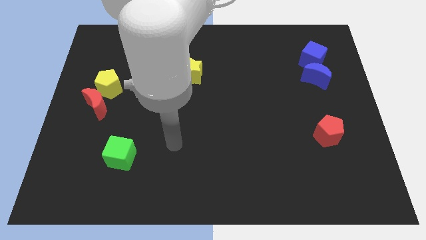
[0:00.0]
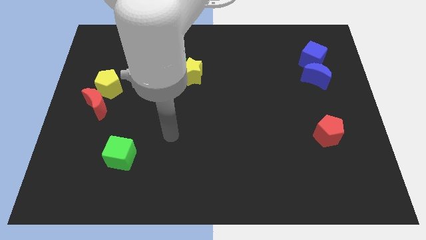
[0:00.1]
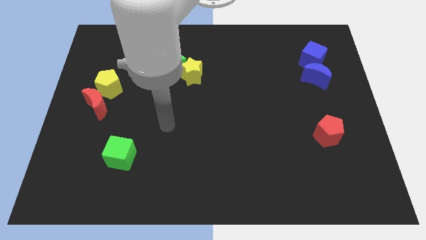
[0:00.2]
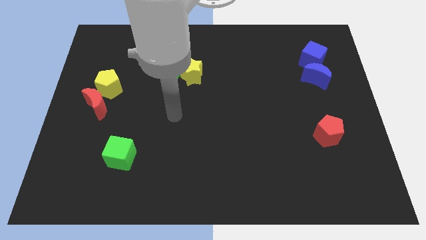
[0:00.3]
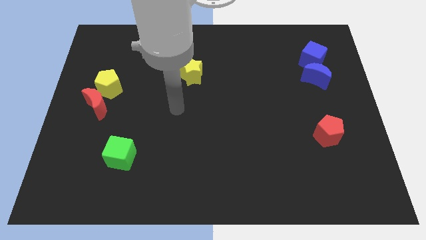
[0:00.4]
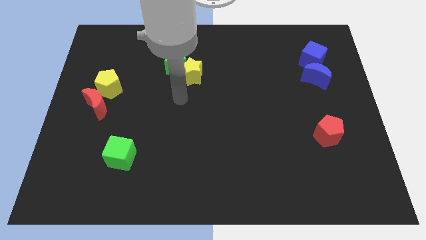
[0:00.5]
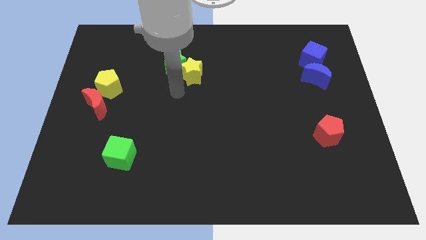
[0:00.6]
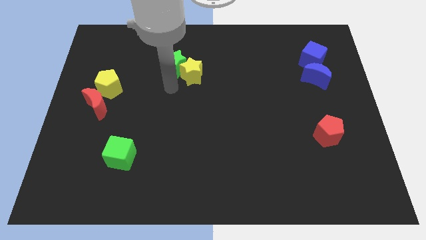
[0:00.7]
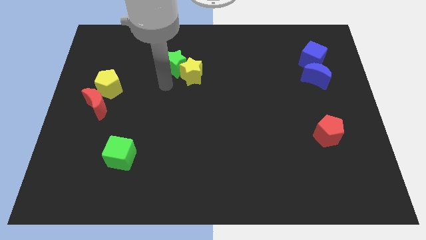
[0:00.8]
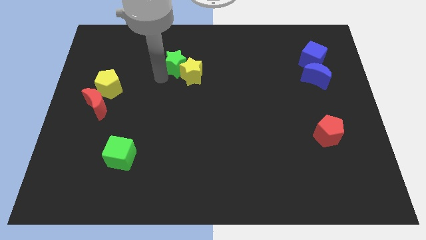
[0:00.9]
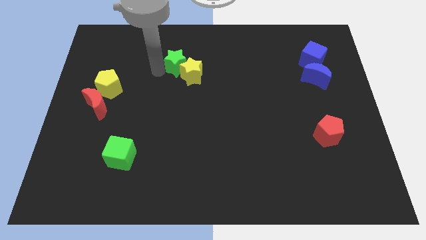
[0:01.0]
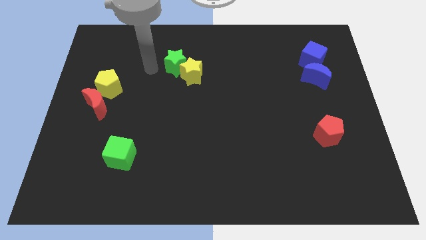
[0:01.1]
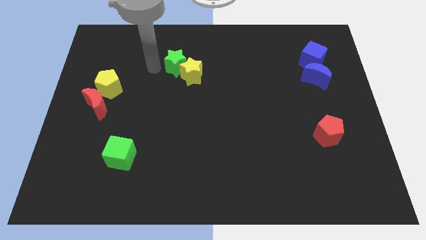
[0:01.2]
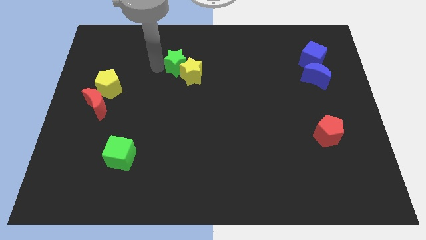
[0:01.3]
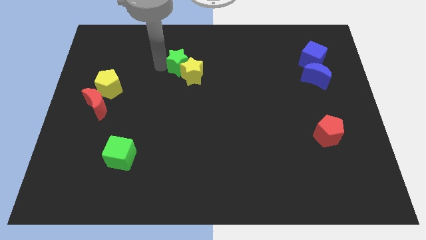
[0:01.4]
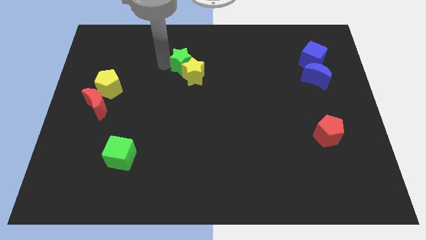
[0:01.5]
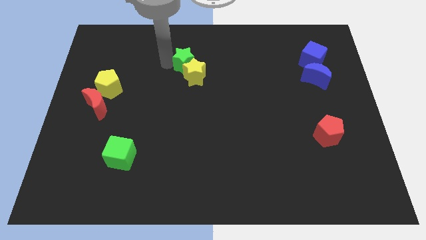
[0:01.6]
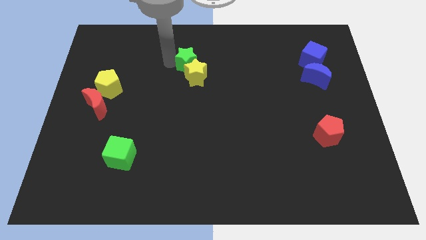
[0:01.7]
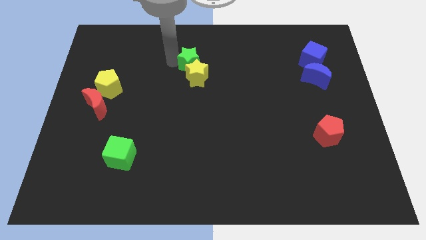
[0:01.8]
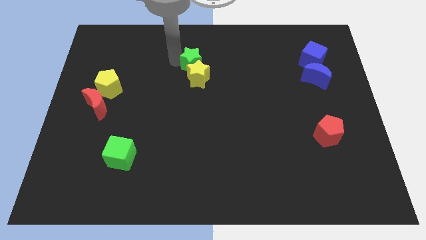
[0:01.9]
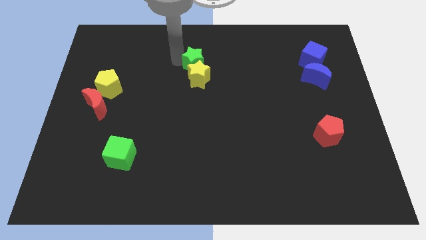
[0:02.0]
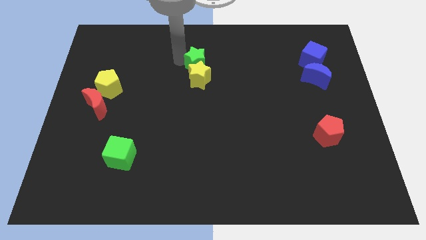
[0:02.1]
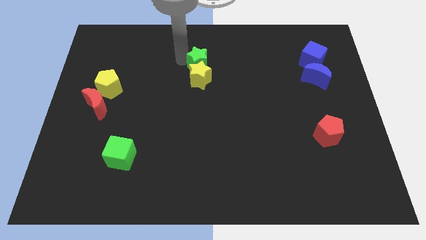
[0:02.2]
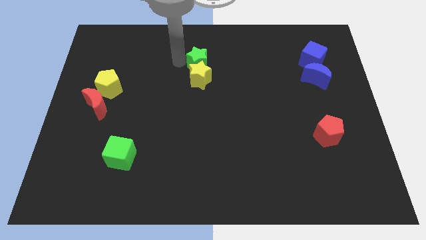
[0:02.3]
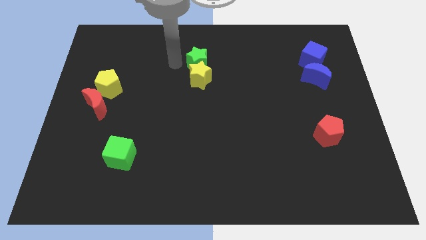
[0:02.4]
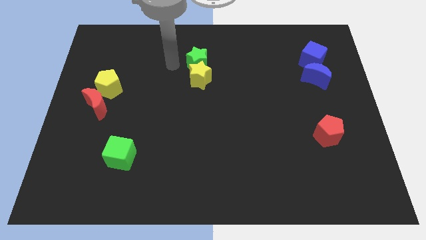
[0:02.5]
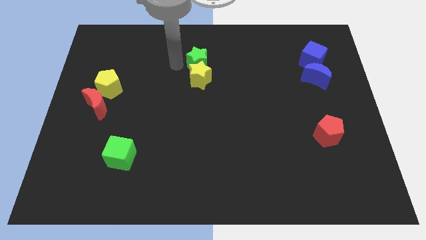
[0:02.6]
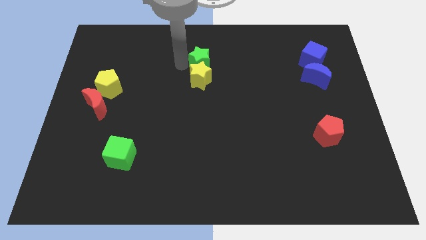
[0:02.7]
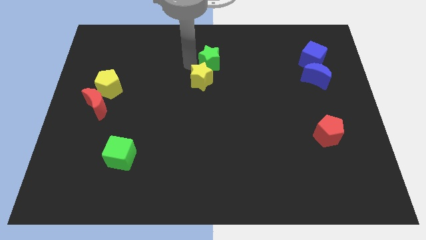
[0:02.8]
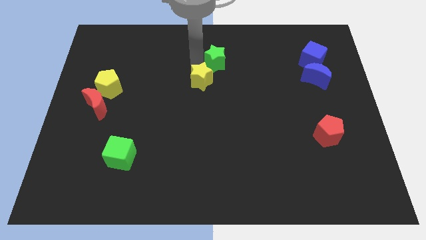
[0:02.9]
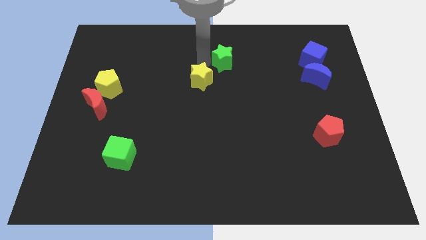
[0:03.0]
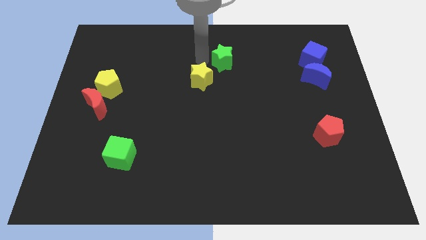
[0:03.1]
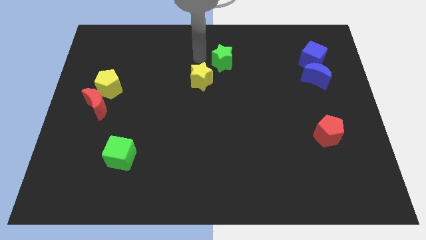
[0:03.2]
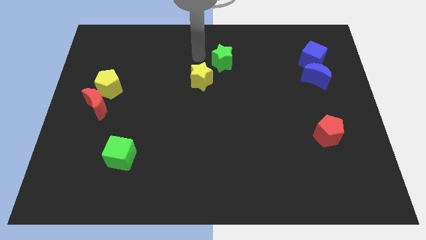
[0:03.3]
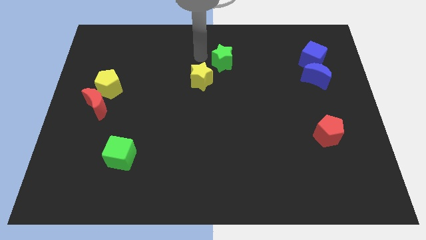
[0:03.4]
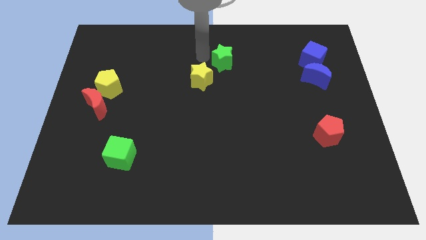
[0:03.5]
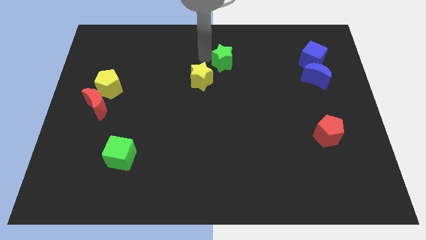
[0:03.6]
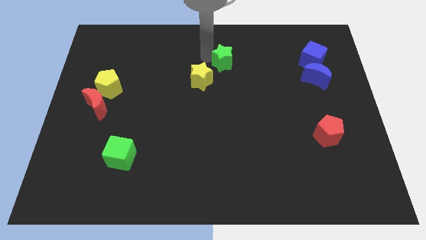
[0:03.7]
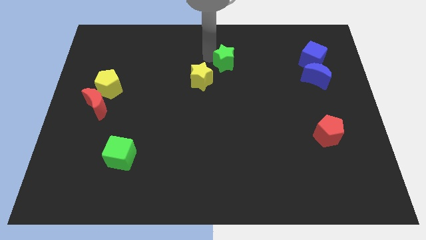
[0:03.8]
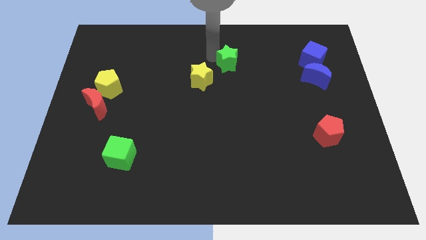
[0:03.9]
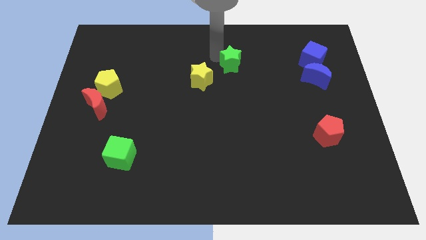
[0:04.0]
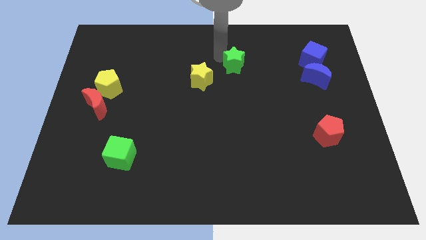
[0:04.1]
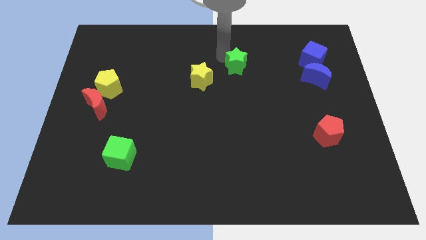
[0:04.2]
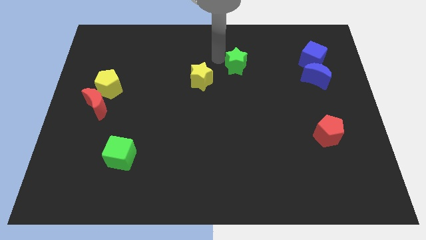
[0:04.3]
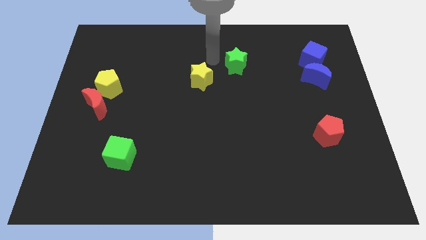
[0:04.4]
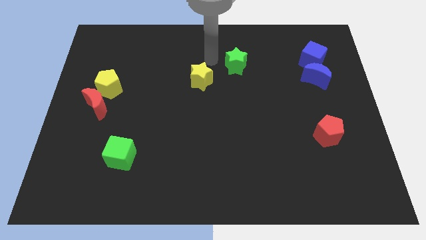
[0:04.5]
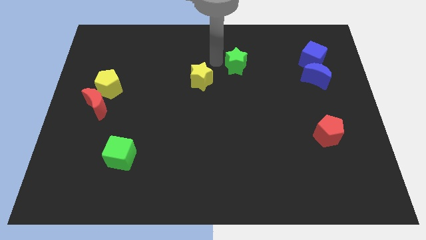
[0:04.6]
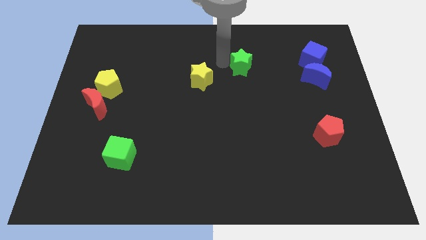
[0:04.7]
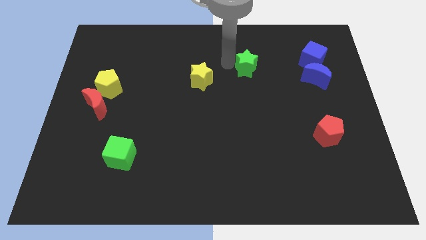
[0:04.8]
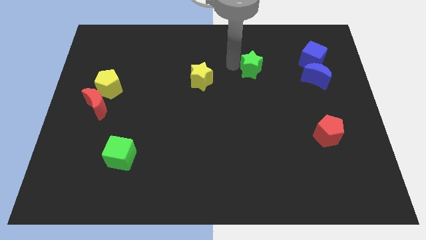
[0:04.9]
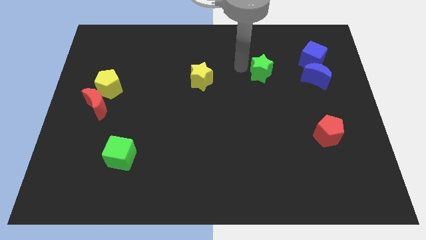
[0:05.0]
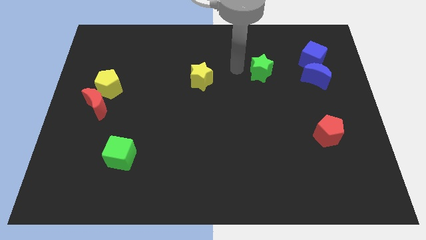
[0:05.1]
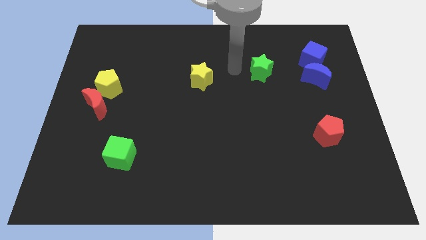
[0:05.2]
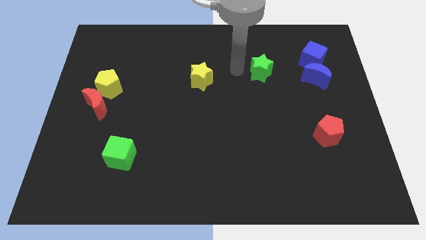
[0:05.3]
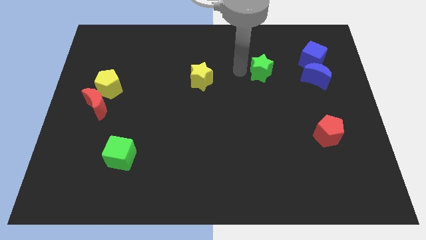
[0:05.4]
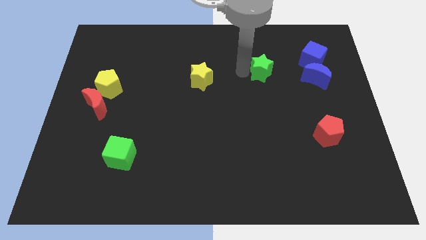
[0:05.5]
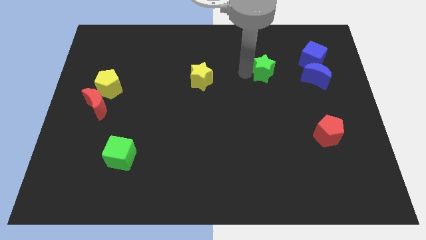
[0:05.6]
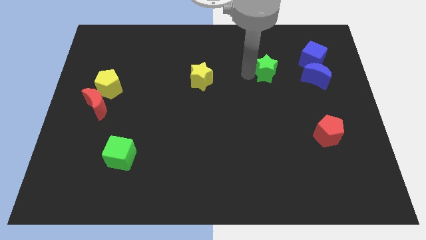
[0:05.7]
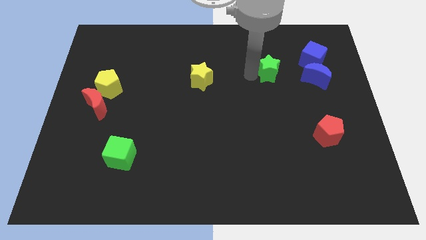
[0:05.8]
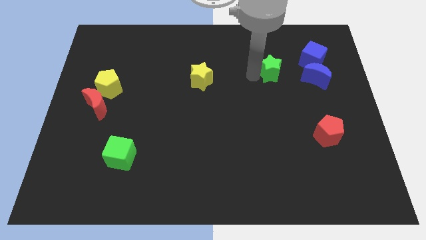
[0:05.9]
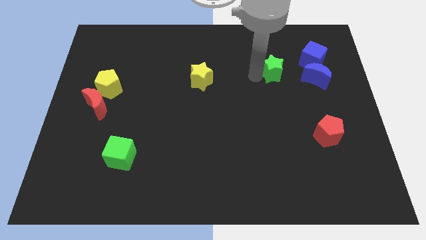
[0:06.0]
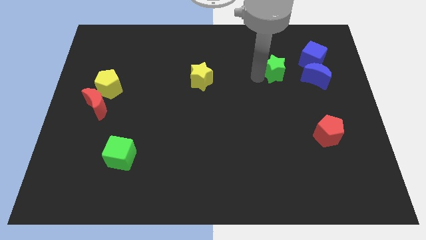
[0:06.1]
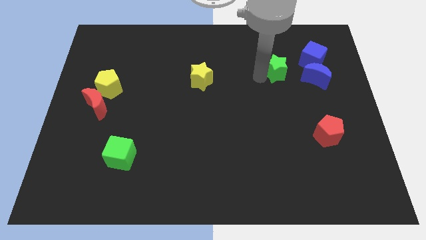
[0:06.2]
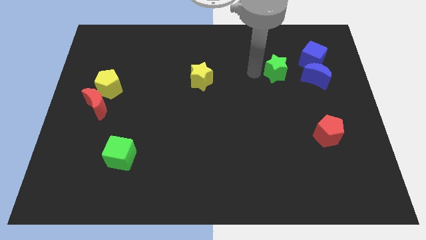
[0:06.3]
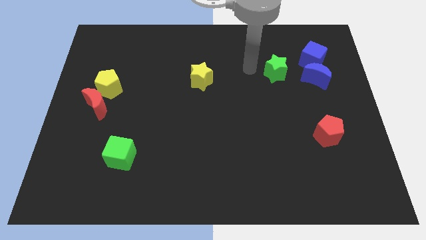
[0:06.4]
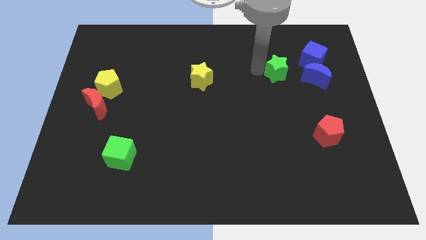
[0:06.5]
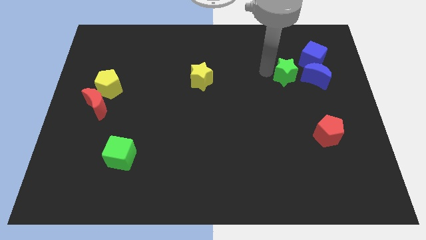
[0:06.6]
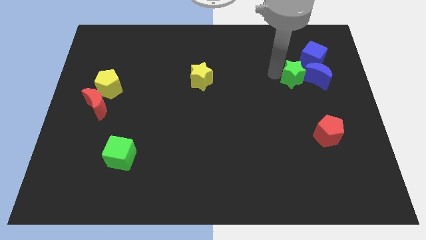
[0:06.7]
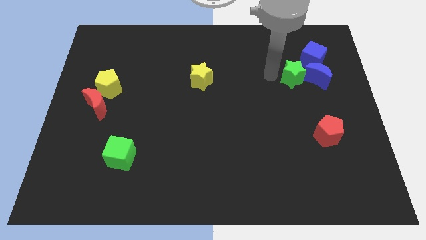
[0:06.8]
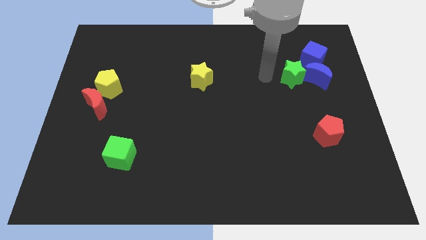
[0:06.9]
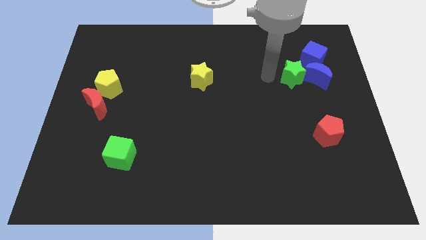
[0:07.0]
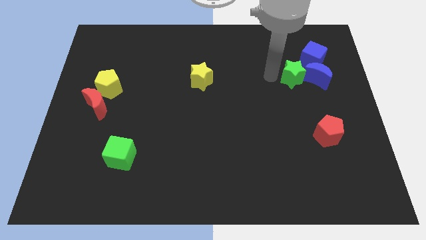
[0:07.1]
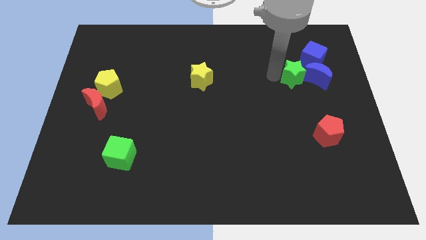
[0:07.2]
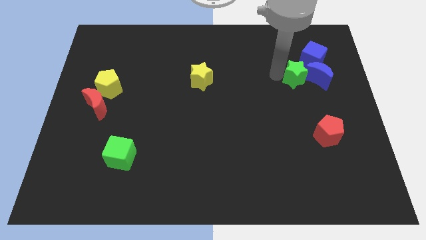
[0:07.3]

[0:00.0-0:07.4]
move the green star next to the blue moon
